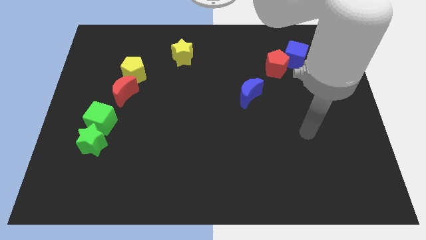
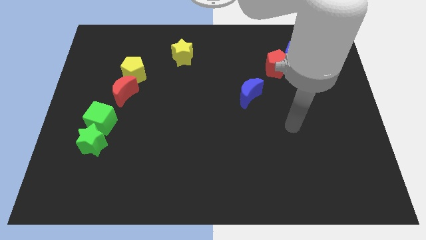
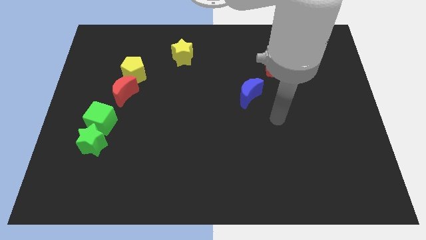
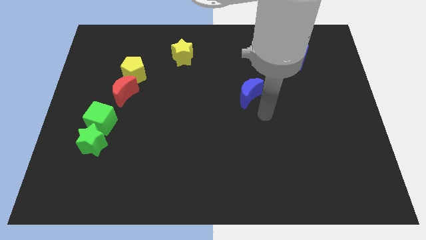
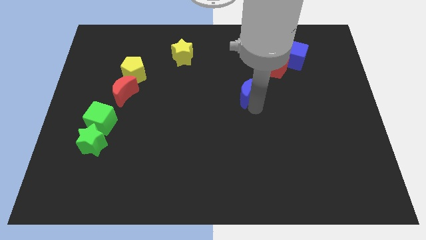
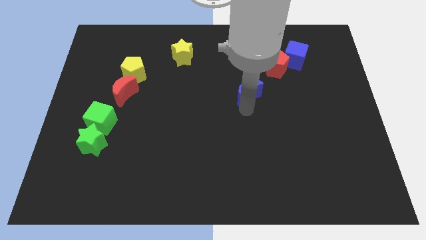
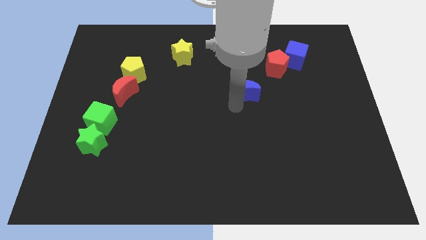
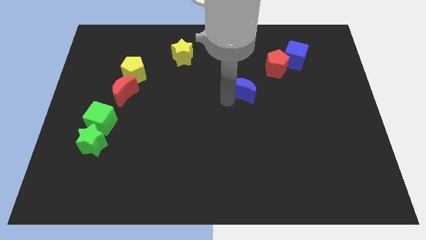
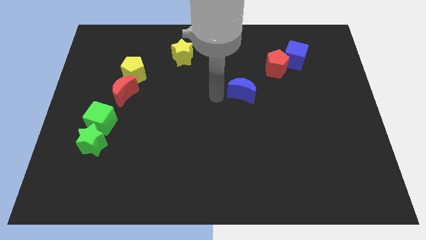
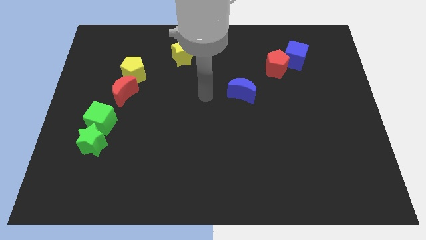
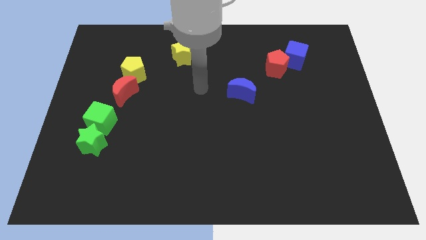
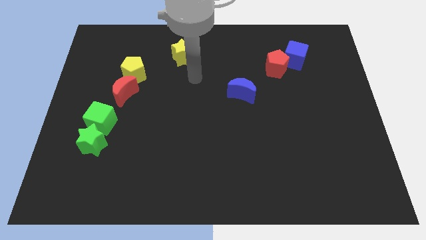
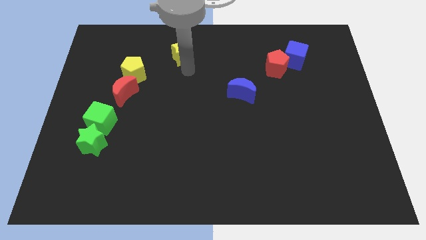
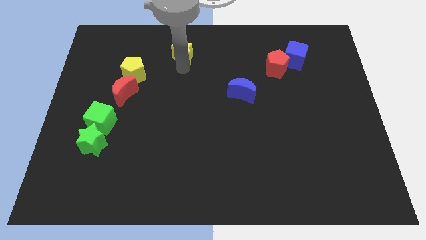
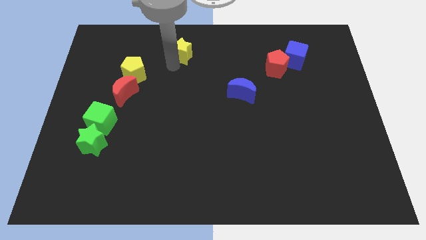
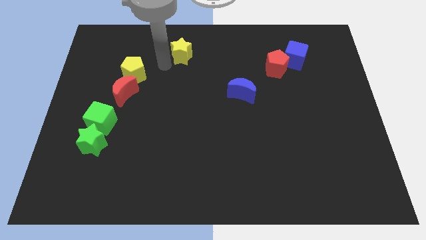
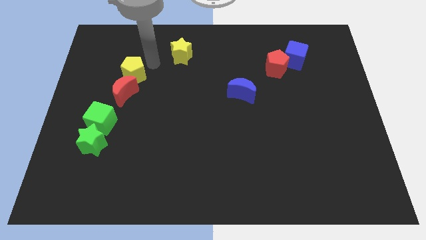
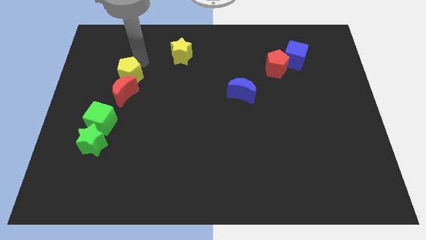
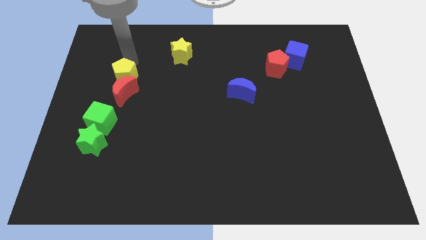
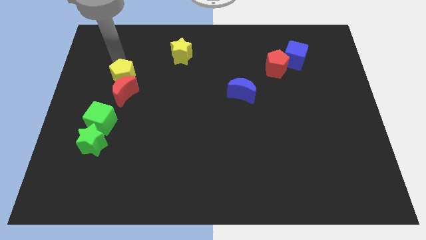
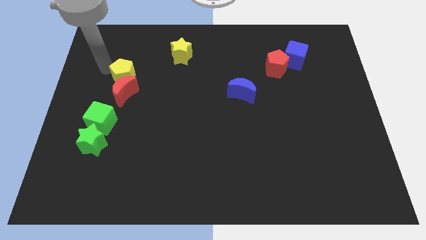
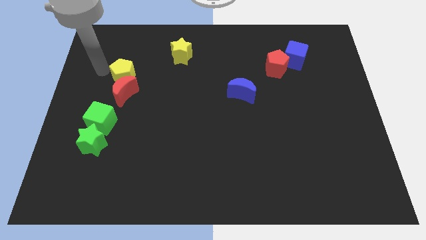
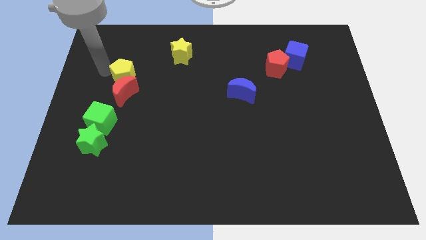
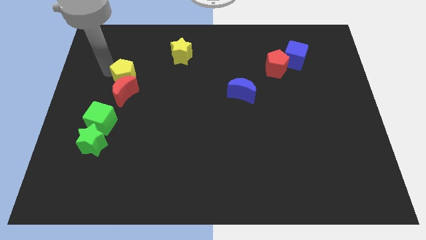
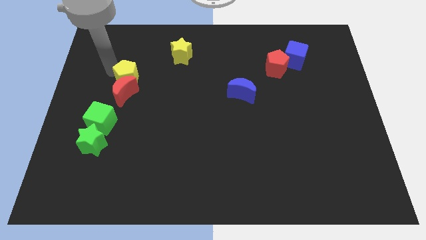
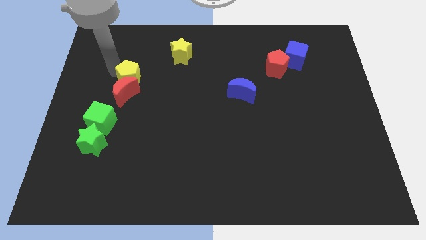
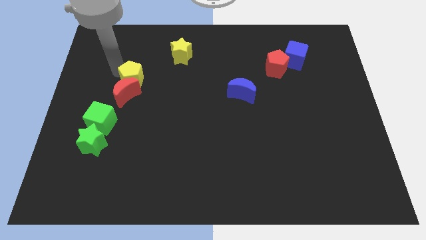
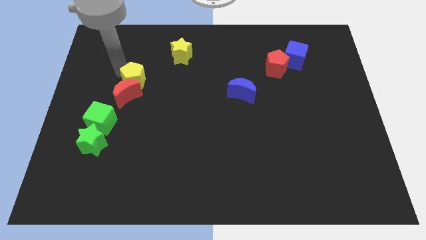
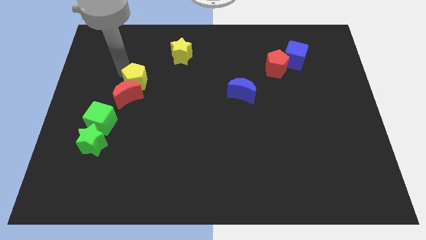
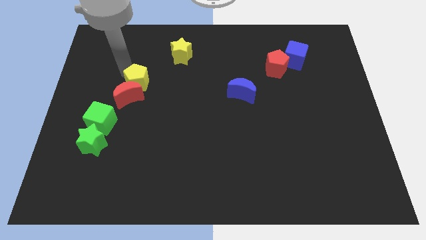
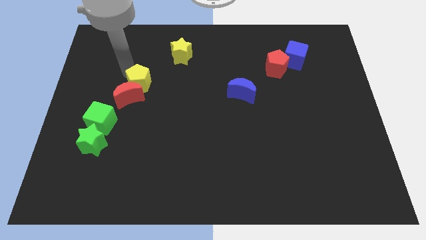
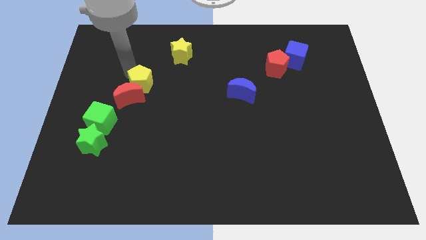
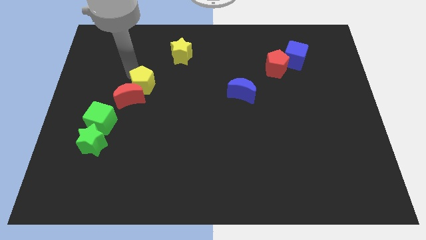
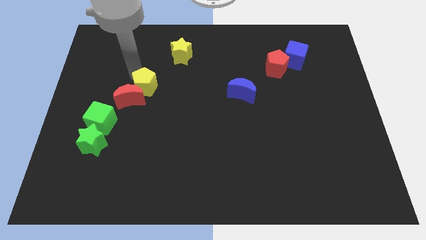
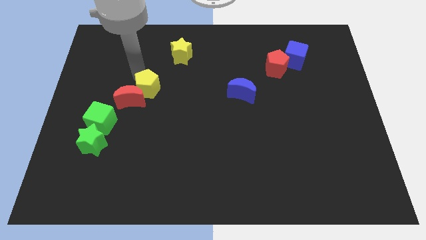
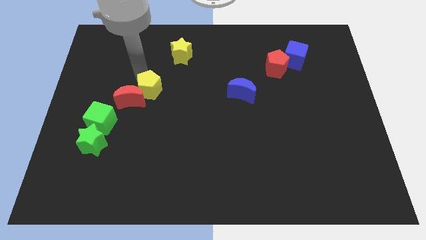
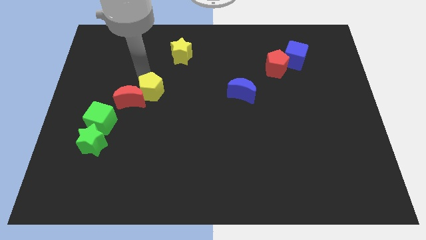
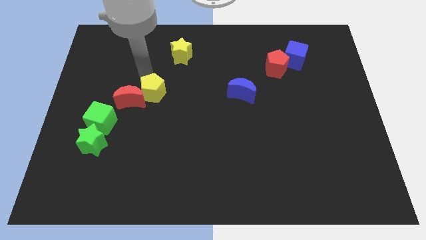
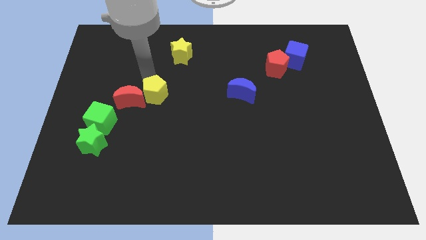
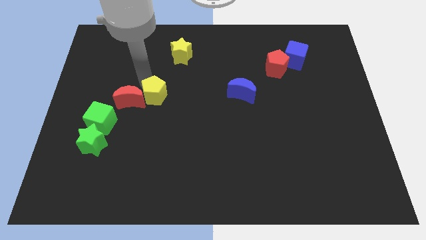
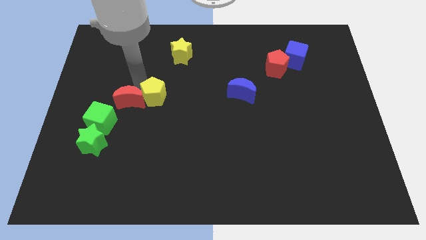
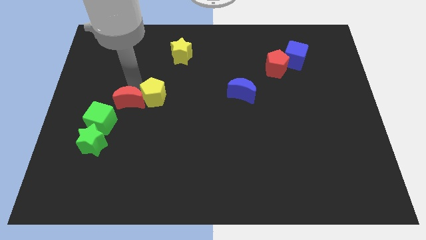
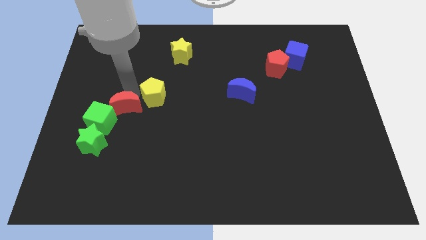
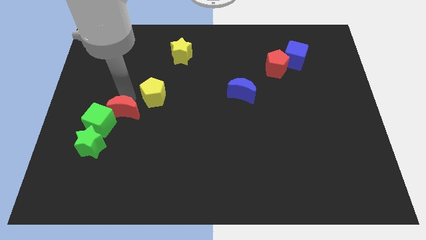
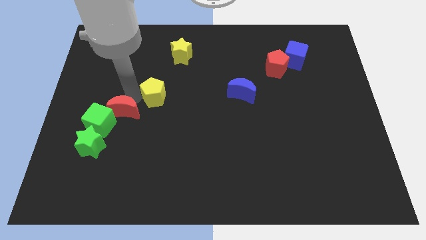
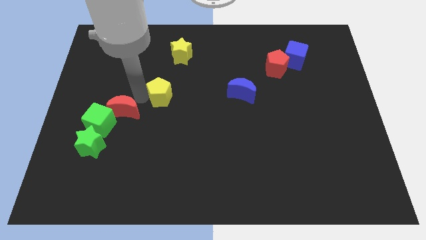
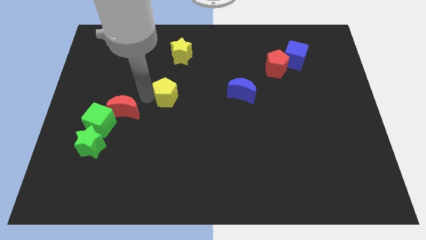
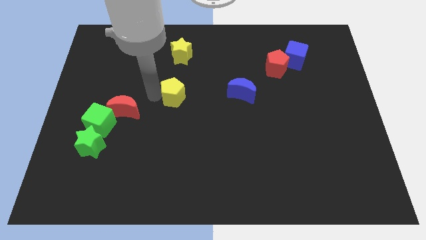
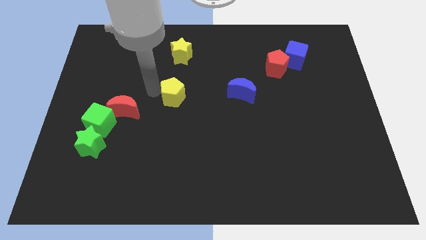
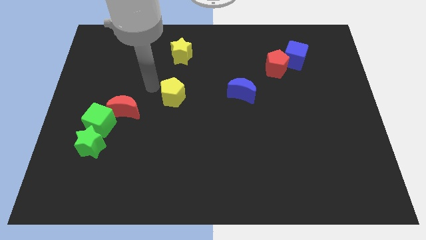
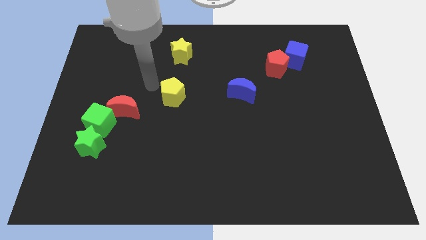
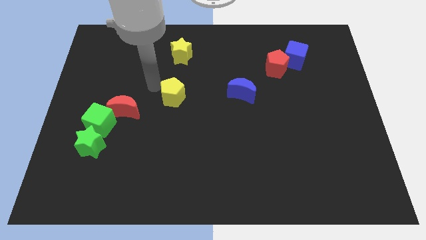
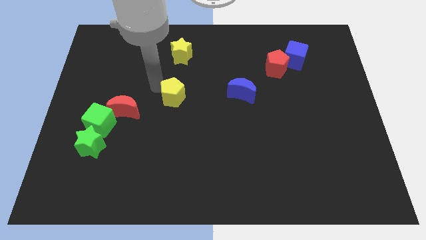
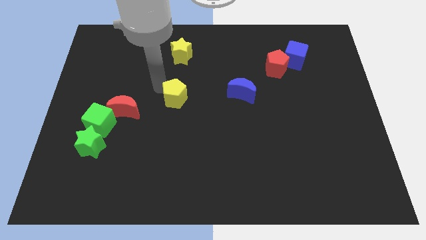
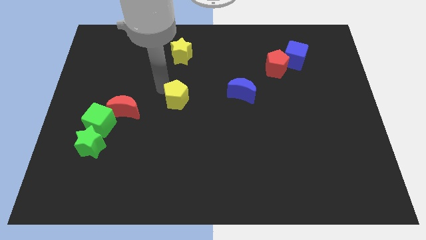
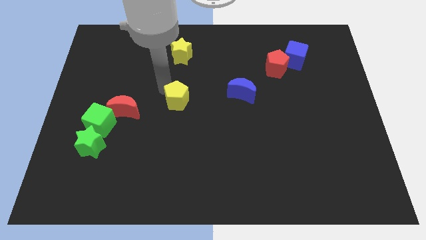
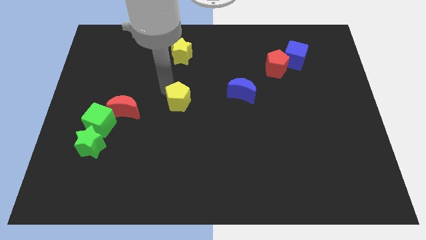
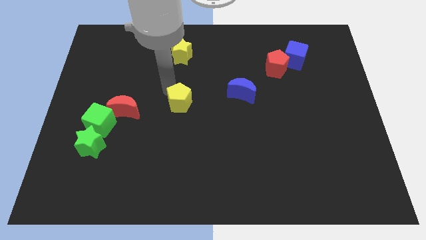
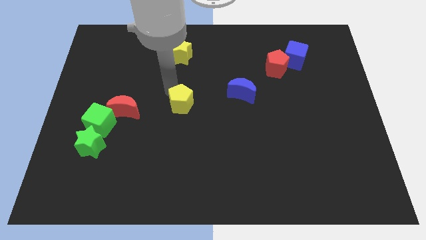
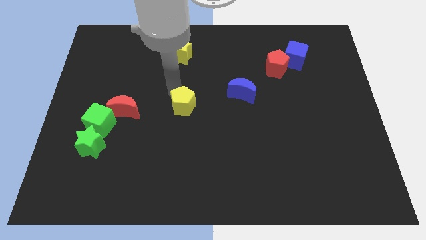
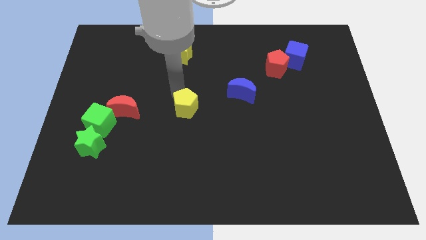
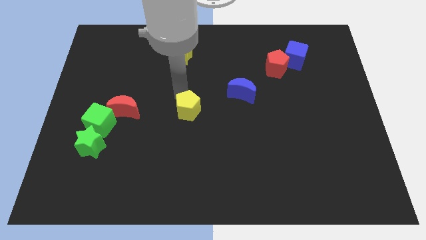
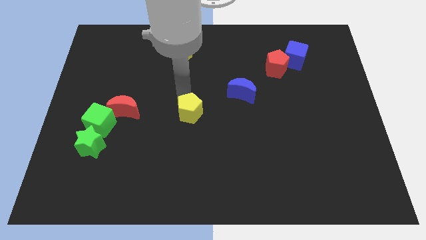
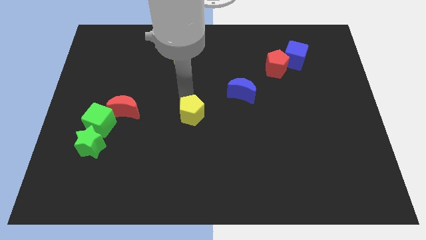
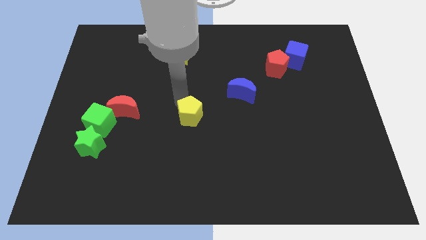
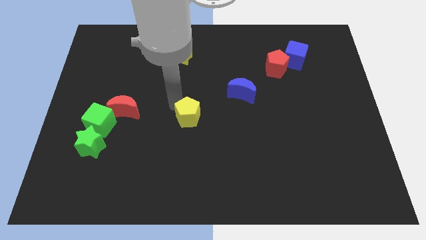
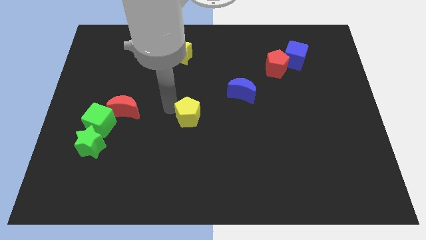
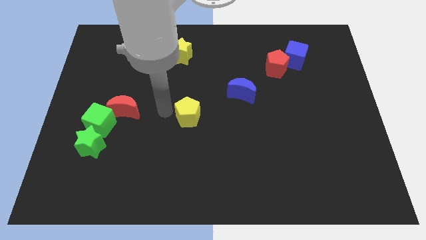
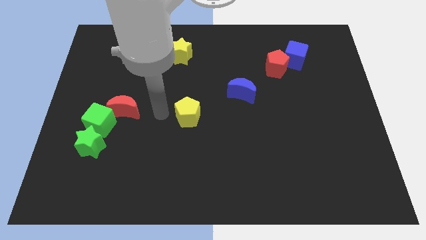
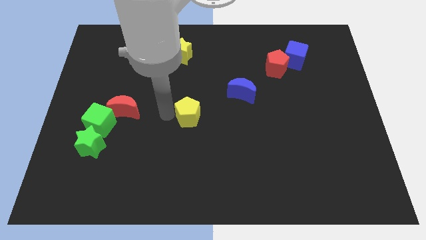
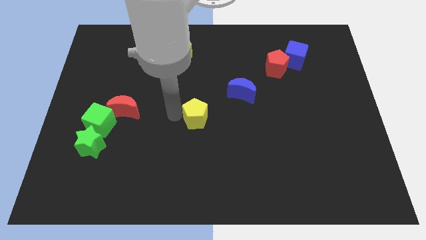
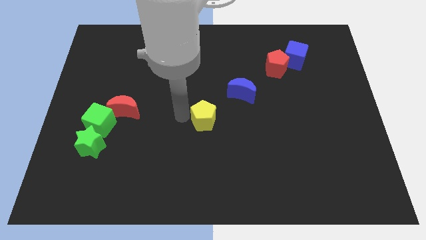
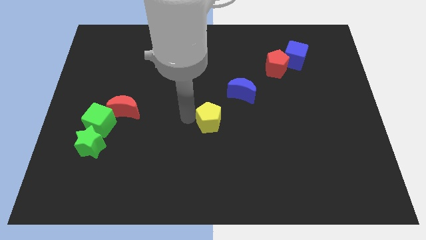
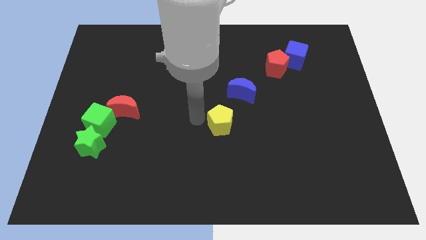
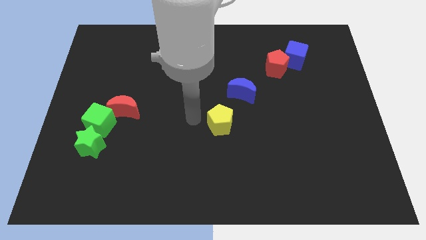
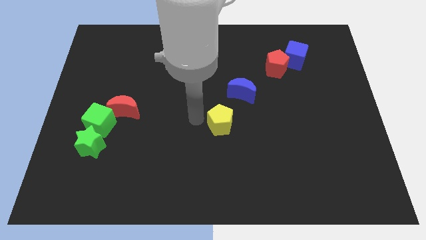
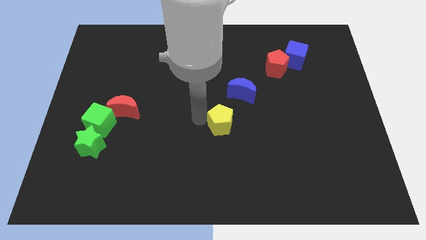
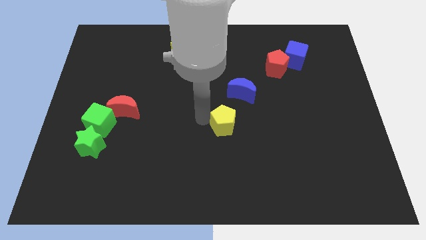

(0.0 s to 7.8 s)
slide the yellow pentagon to the bottom side of the blue moon
